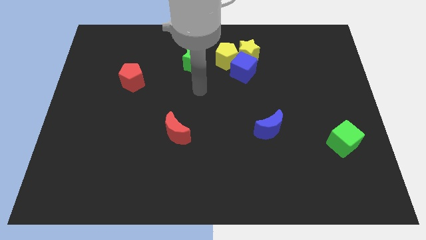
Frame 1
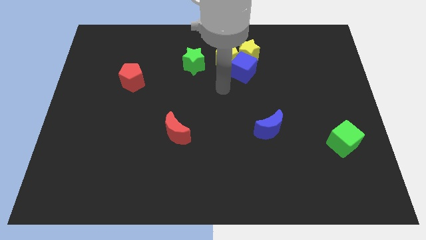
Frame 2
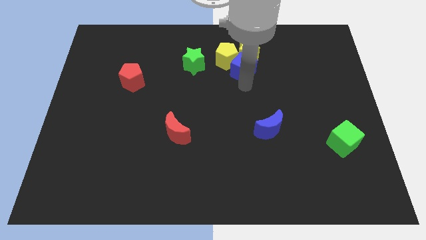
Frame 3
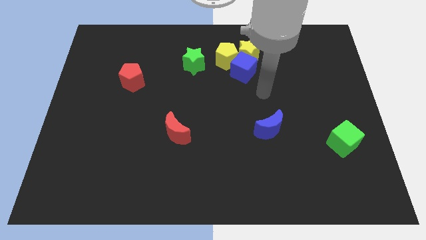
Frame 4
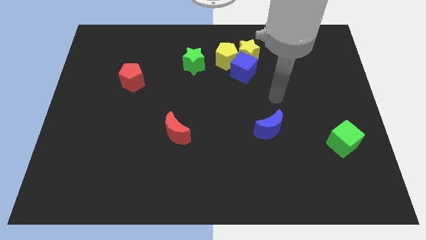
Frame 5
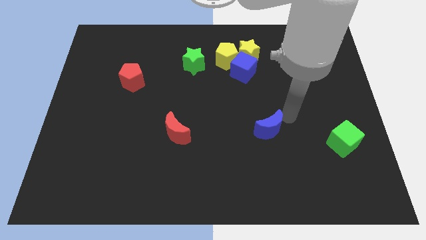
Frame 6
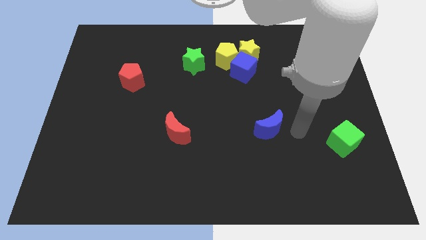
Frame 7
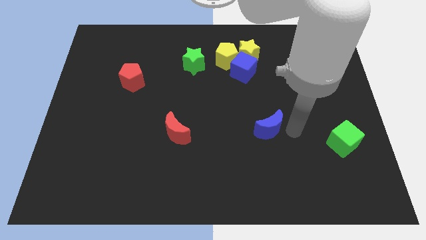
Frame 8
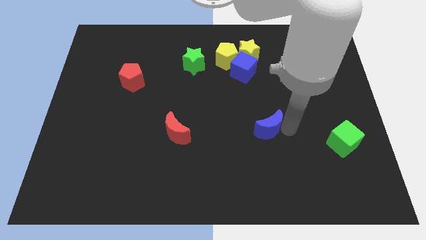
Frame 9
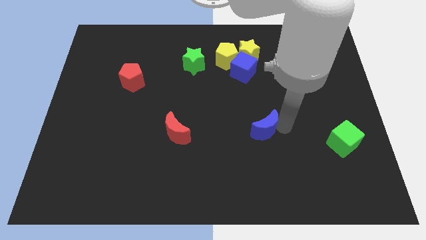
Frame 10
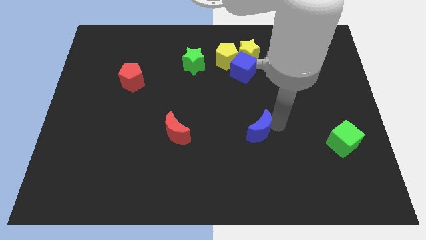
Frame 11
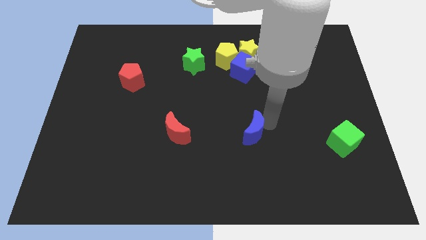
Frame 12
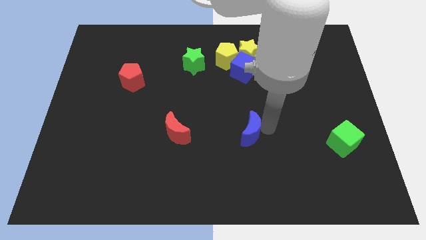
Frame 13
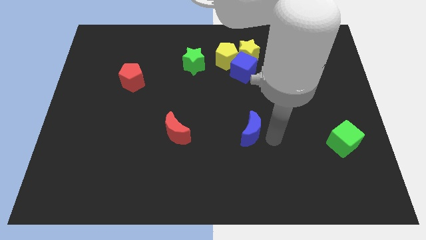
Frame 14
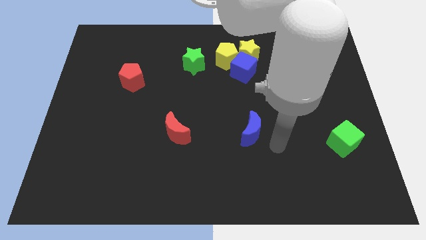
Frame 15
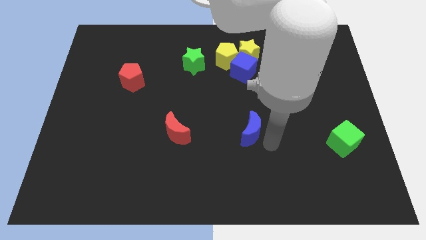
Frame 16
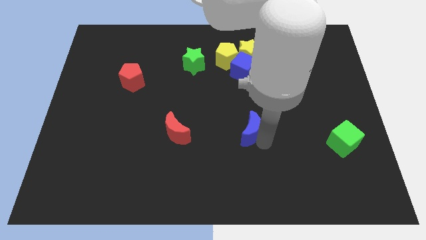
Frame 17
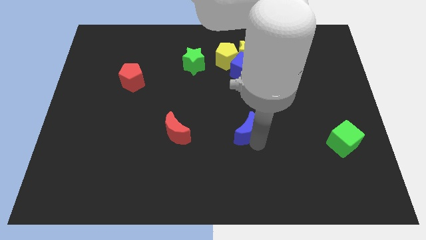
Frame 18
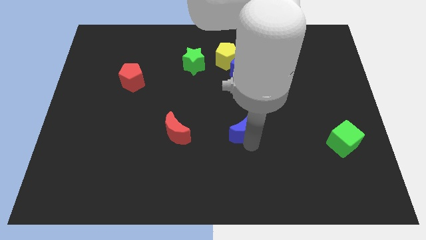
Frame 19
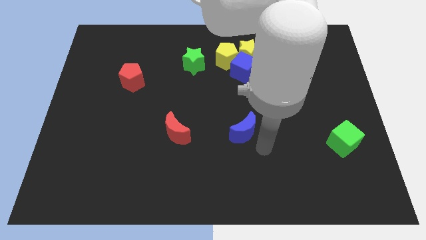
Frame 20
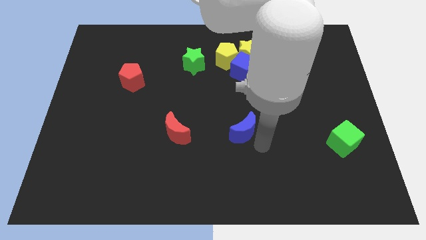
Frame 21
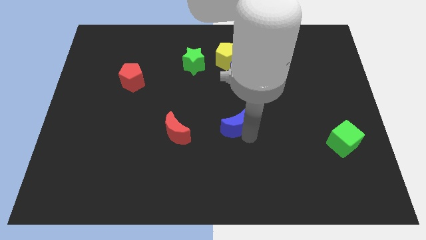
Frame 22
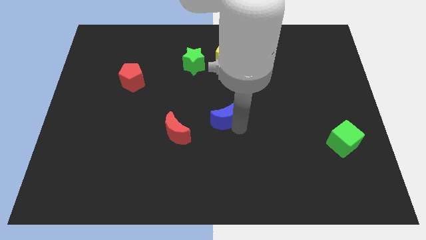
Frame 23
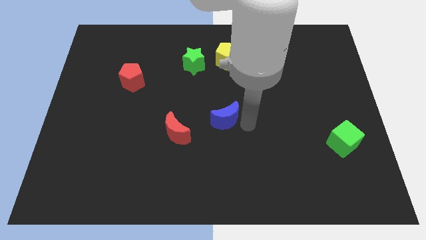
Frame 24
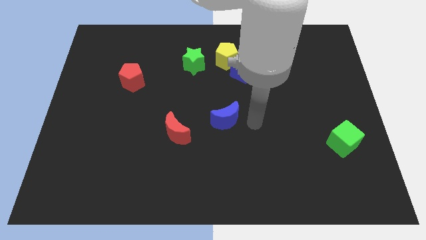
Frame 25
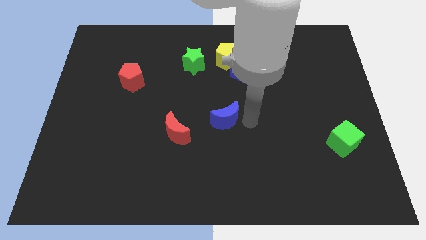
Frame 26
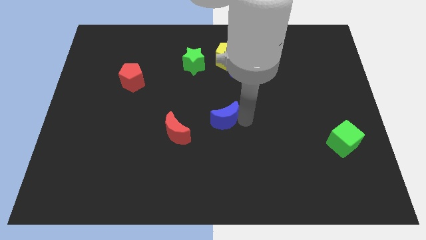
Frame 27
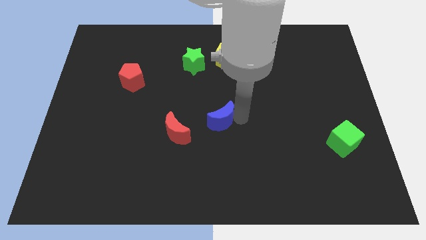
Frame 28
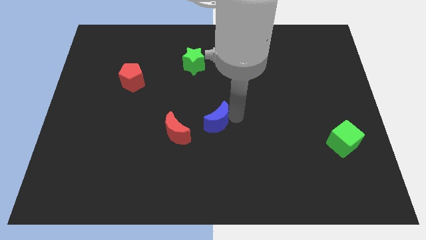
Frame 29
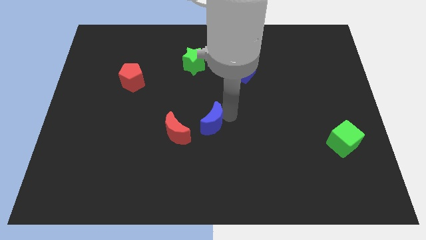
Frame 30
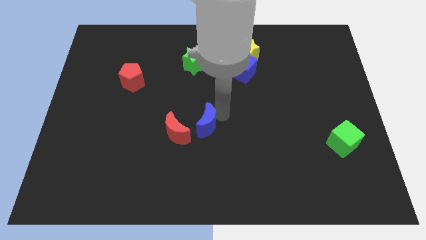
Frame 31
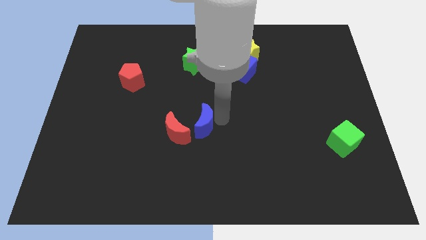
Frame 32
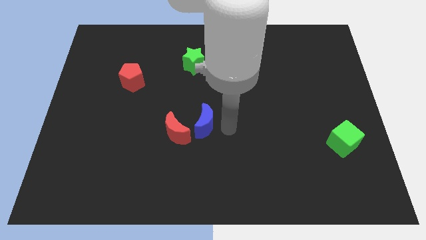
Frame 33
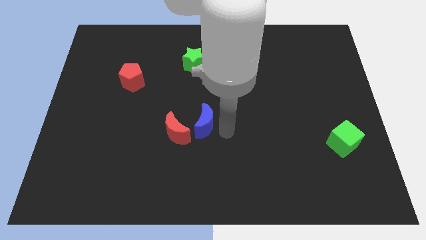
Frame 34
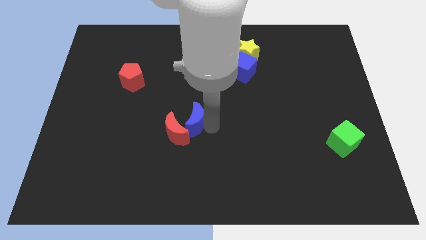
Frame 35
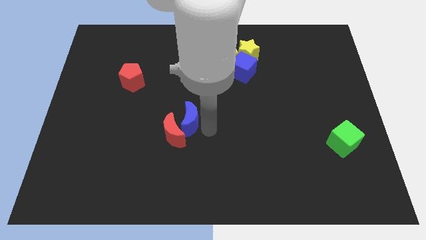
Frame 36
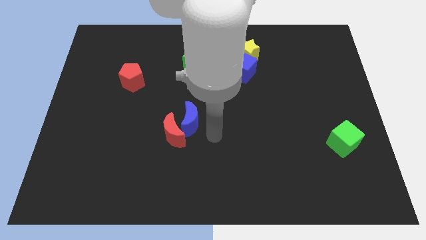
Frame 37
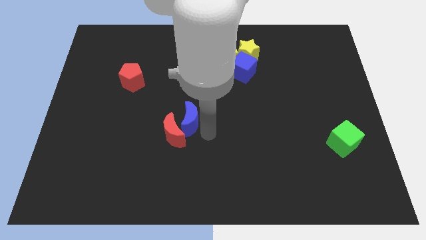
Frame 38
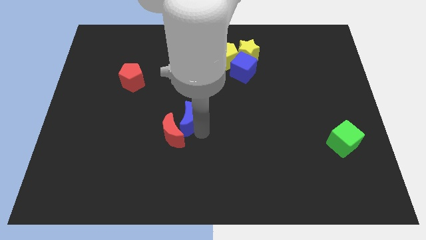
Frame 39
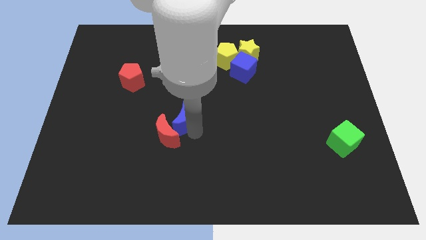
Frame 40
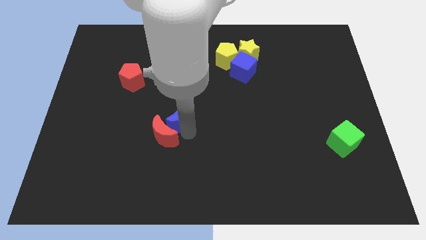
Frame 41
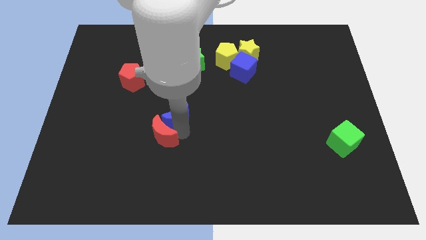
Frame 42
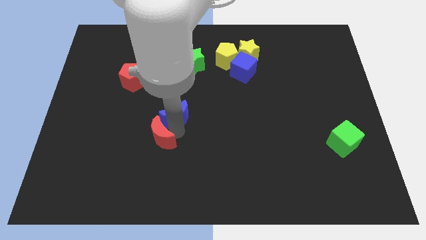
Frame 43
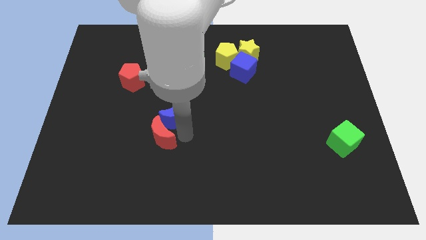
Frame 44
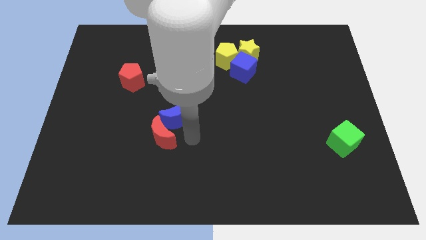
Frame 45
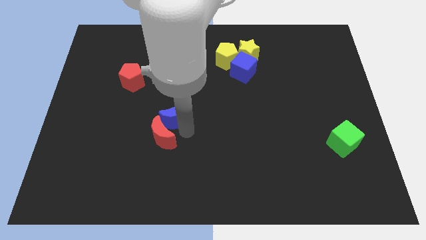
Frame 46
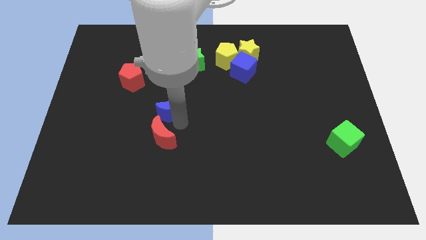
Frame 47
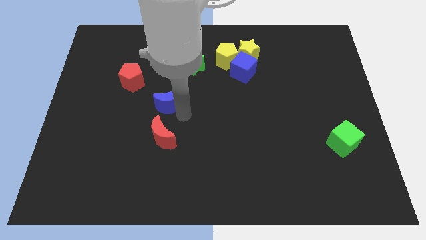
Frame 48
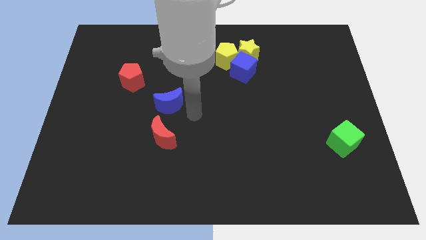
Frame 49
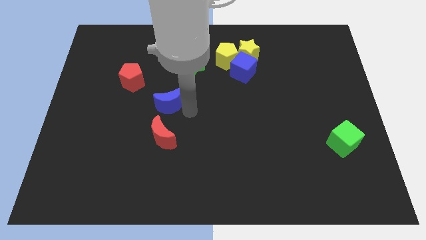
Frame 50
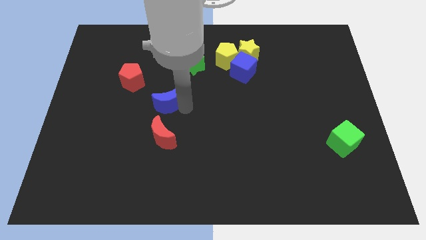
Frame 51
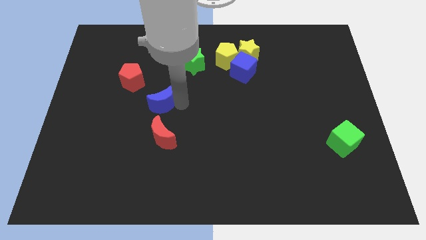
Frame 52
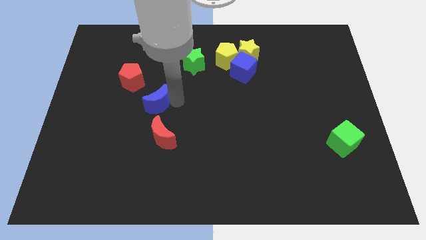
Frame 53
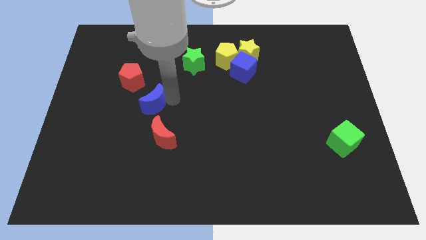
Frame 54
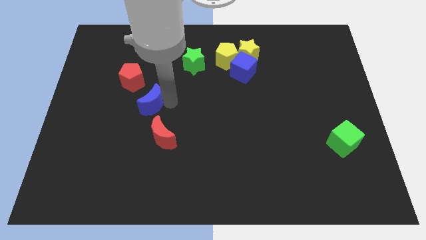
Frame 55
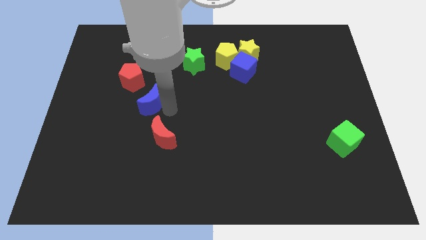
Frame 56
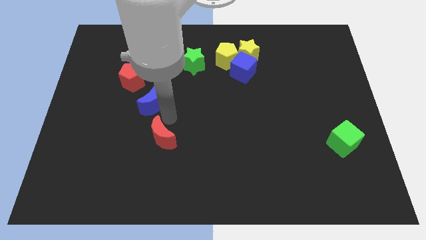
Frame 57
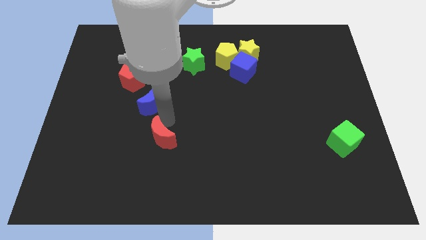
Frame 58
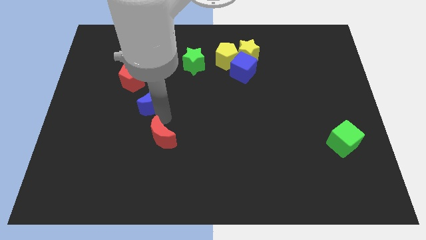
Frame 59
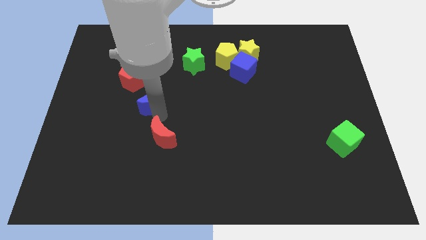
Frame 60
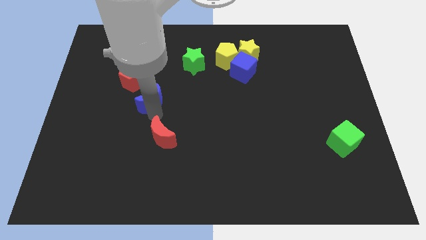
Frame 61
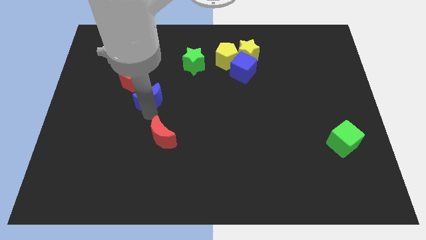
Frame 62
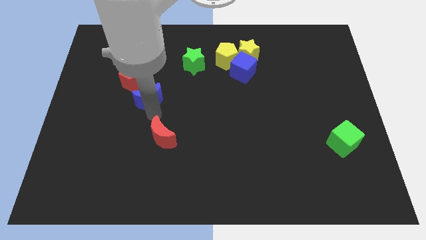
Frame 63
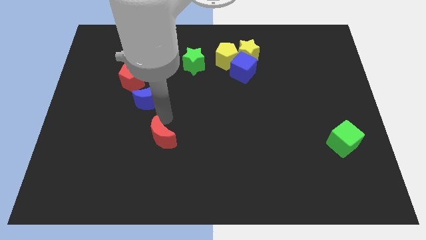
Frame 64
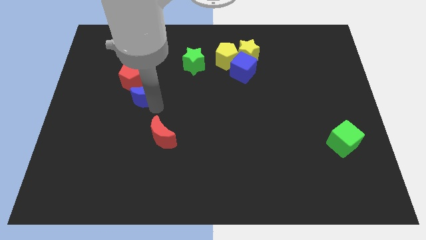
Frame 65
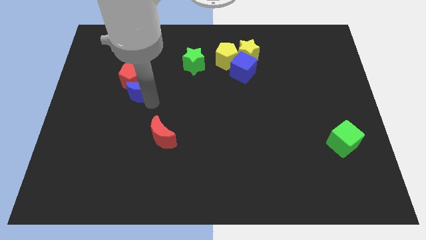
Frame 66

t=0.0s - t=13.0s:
slide the blue moon towards the red pentagon
